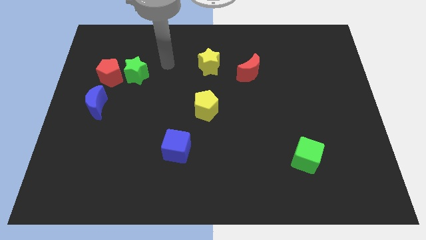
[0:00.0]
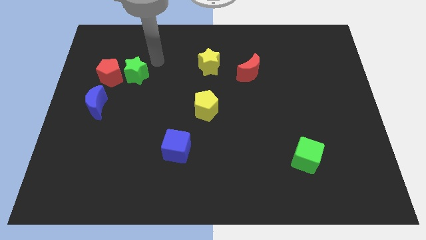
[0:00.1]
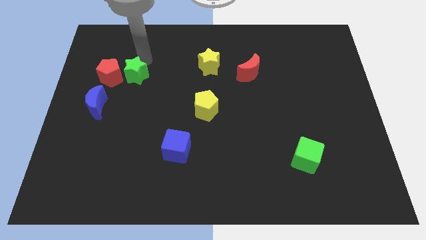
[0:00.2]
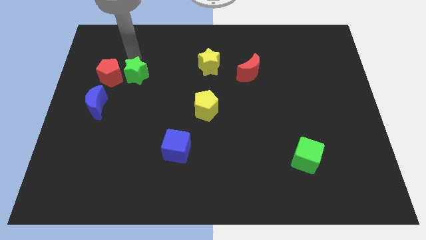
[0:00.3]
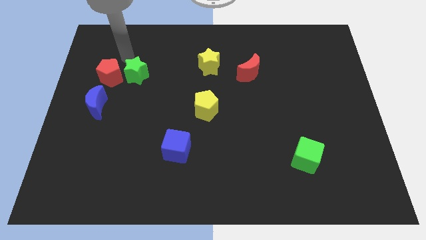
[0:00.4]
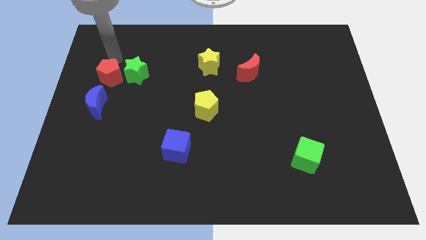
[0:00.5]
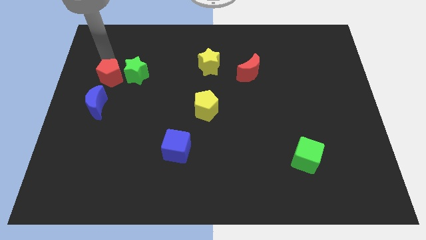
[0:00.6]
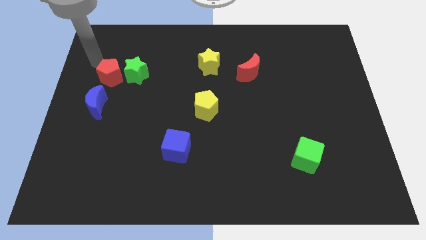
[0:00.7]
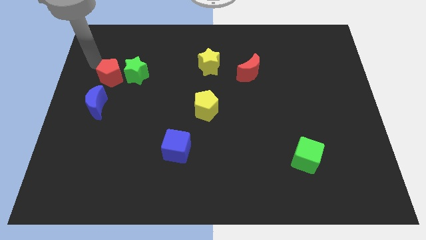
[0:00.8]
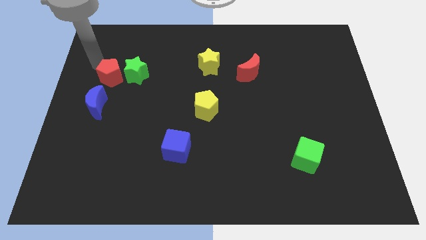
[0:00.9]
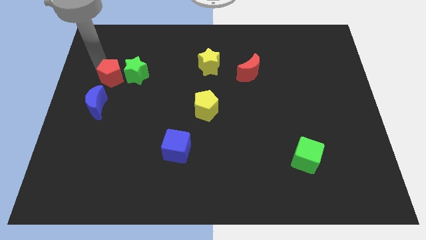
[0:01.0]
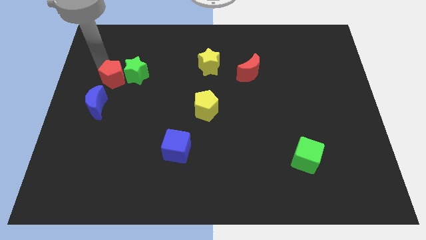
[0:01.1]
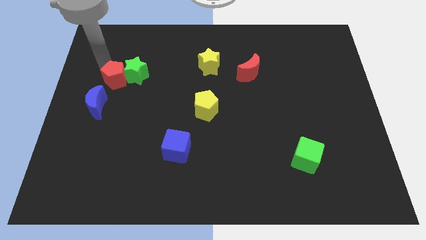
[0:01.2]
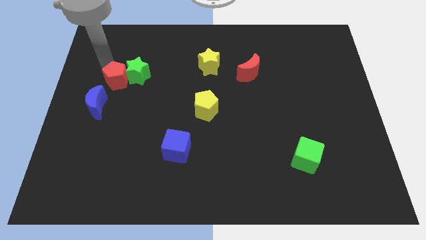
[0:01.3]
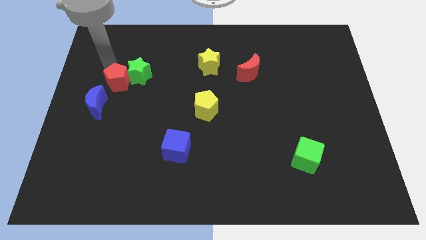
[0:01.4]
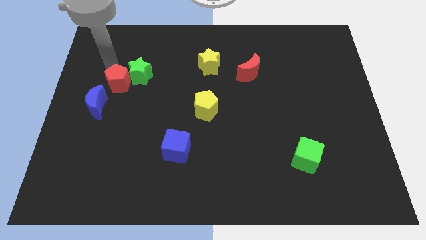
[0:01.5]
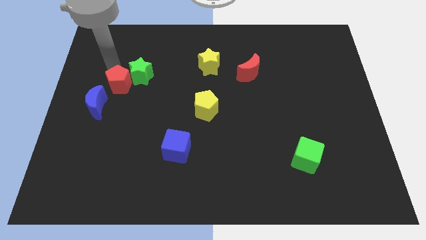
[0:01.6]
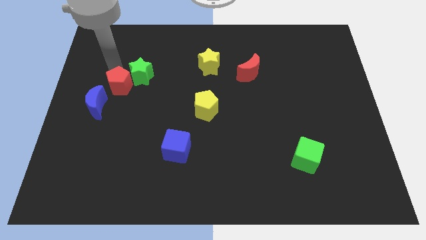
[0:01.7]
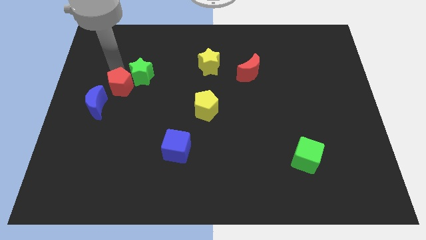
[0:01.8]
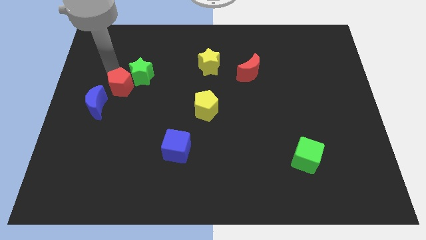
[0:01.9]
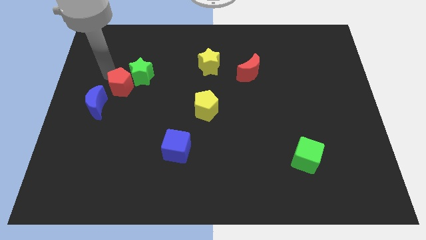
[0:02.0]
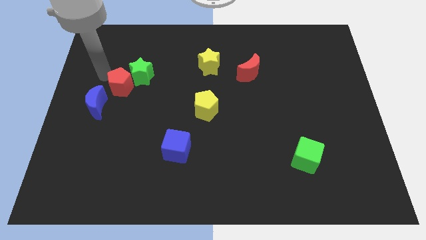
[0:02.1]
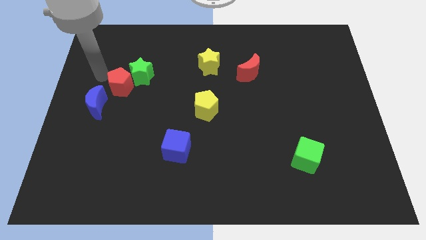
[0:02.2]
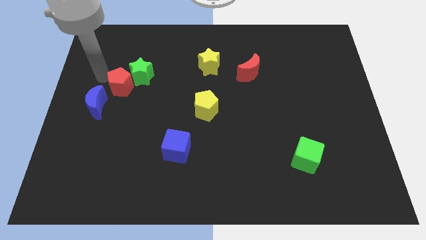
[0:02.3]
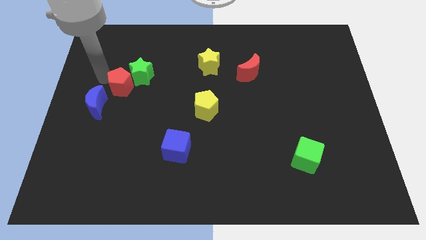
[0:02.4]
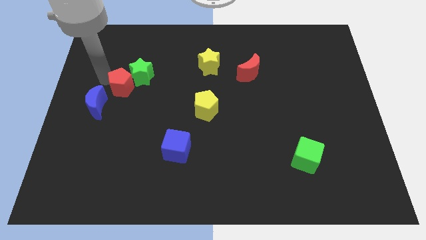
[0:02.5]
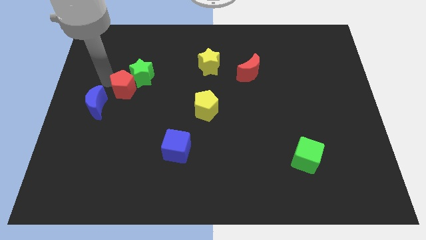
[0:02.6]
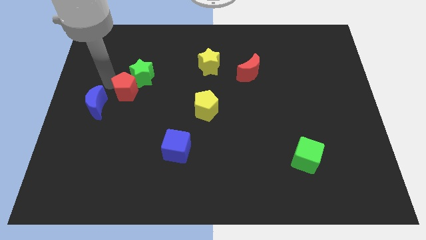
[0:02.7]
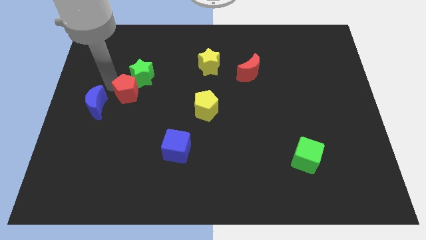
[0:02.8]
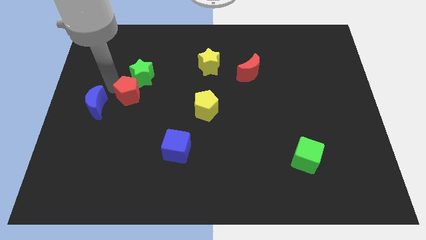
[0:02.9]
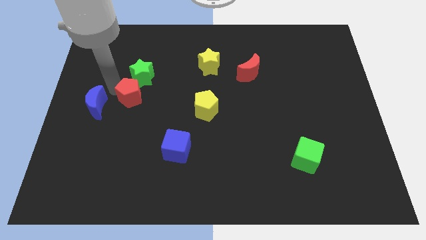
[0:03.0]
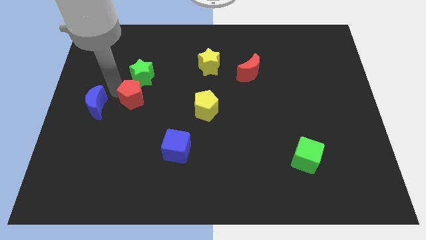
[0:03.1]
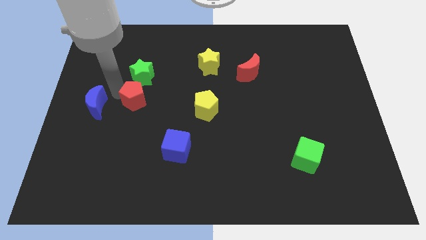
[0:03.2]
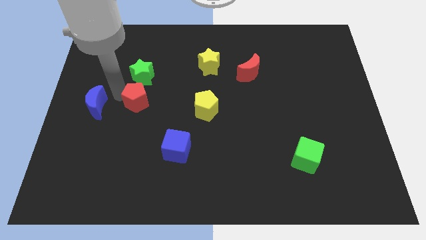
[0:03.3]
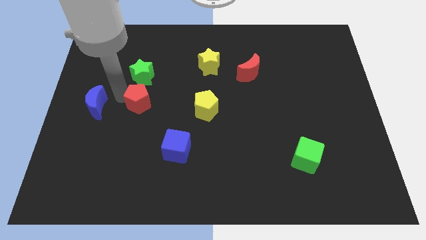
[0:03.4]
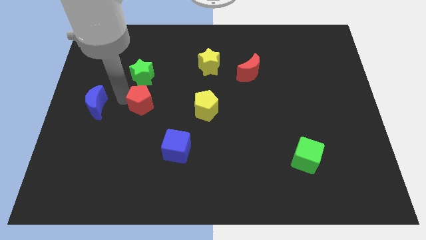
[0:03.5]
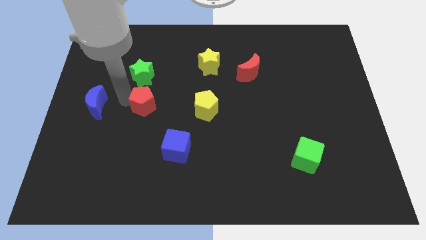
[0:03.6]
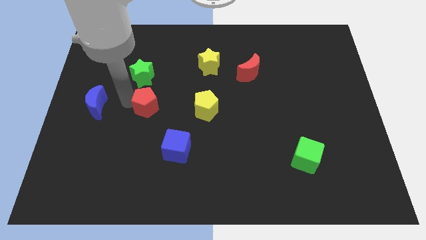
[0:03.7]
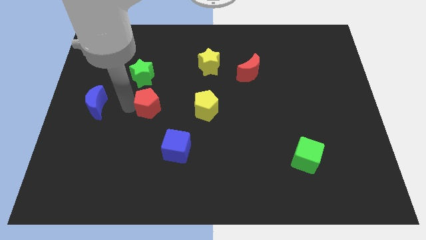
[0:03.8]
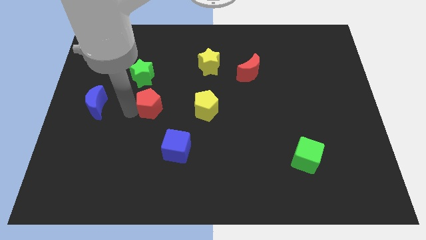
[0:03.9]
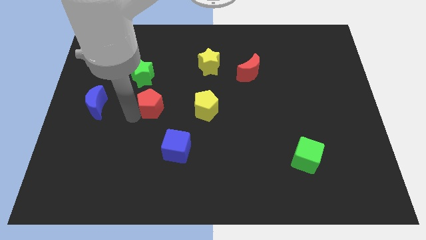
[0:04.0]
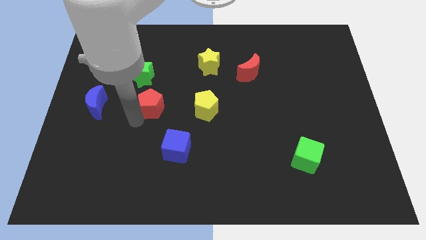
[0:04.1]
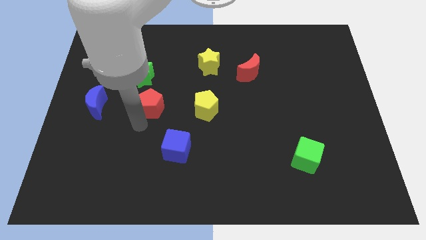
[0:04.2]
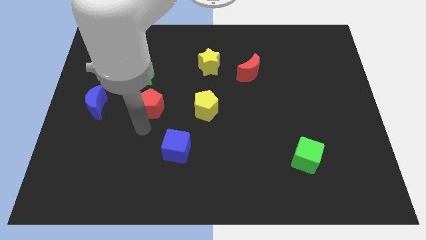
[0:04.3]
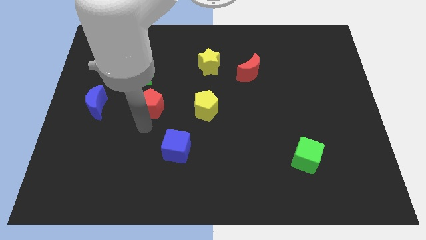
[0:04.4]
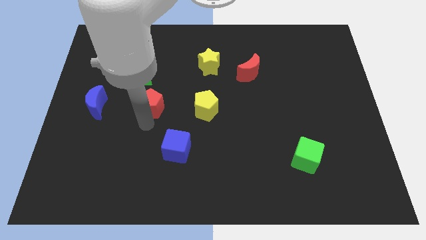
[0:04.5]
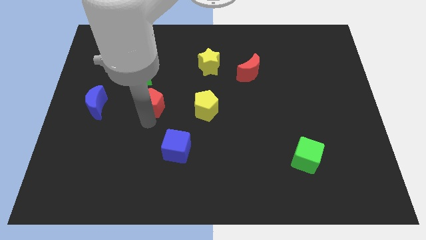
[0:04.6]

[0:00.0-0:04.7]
move the red pentagon right a little bit

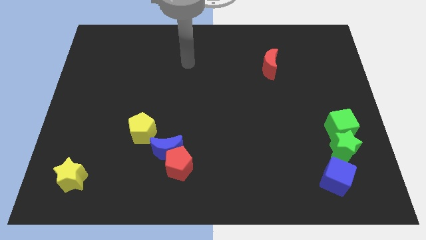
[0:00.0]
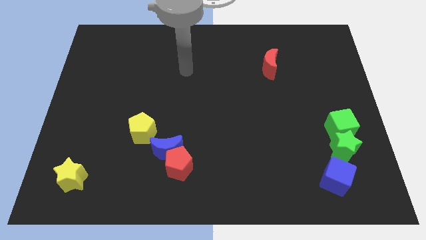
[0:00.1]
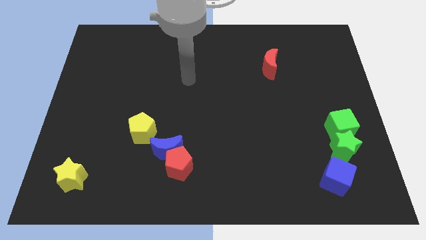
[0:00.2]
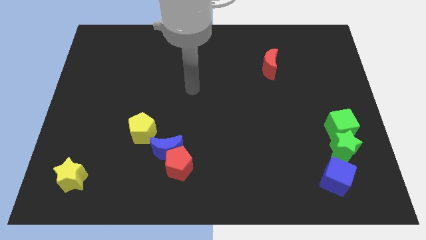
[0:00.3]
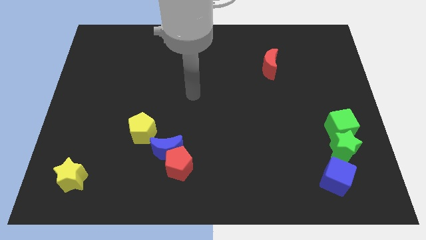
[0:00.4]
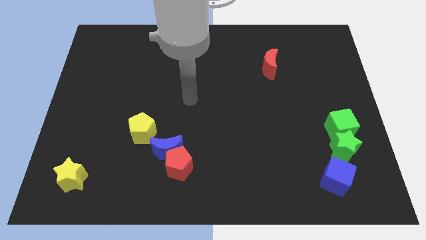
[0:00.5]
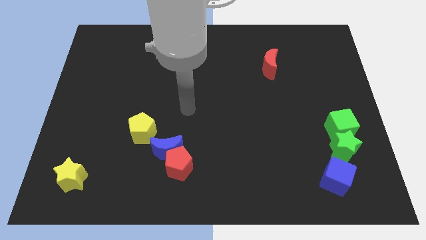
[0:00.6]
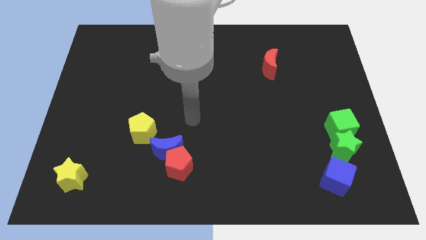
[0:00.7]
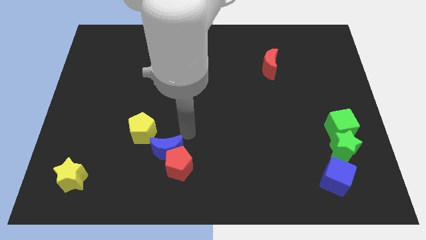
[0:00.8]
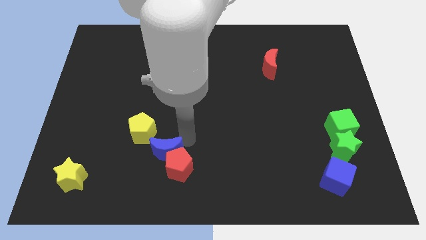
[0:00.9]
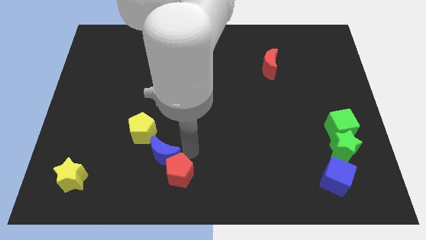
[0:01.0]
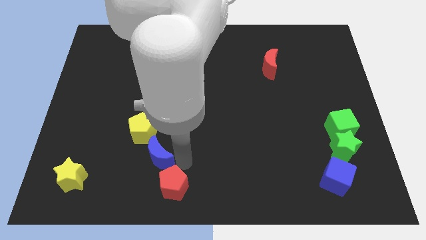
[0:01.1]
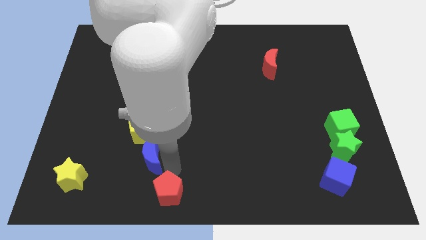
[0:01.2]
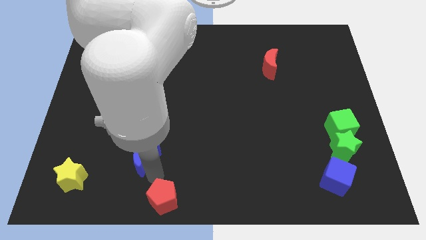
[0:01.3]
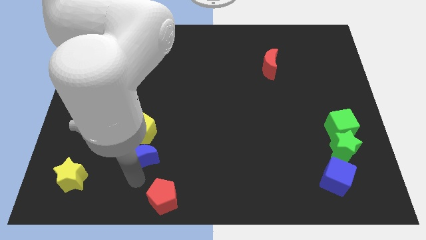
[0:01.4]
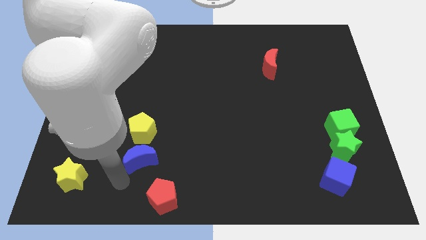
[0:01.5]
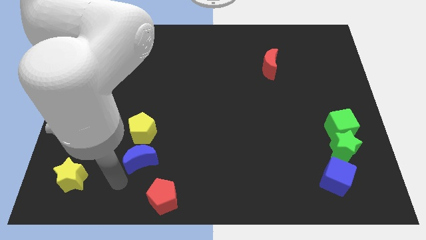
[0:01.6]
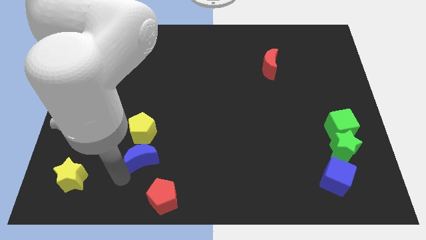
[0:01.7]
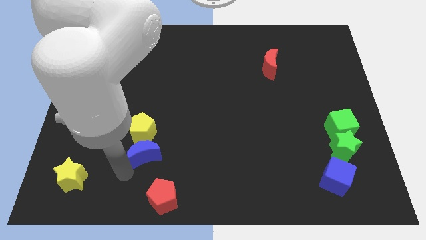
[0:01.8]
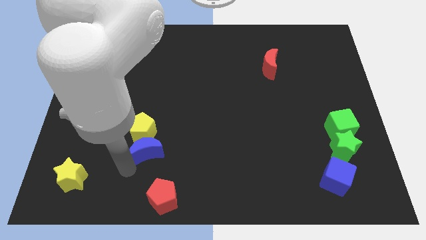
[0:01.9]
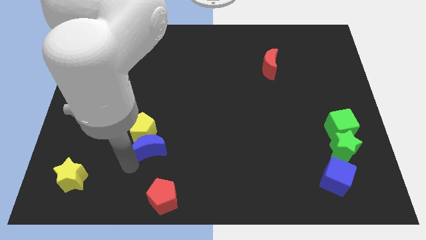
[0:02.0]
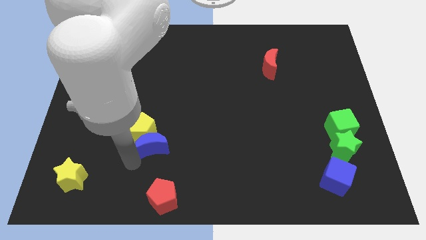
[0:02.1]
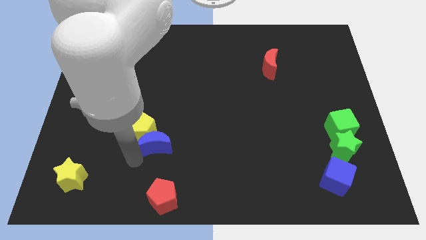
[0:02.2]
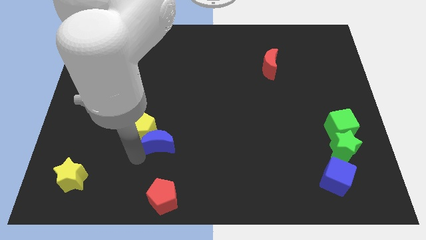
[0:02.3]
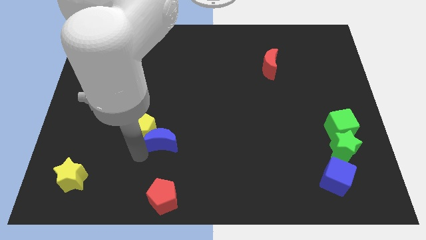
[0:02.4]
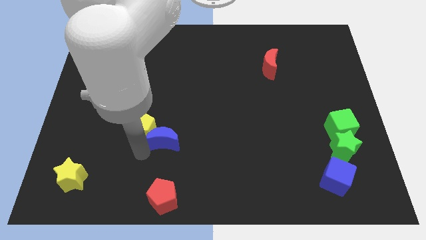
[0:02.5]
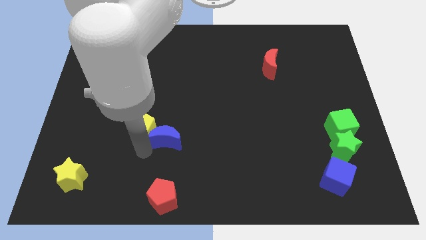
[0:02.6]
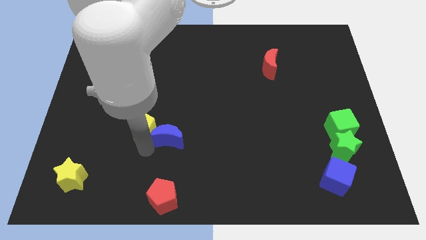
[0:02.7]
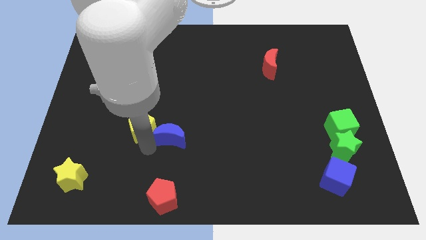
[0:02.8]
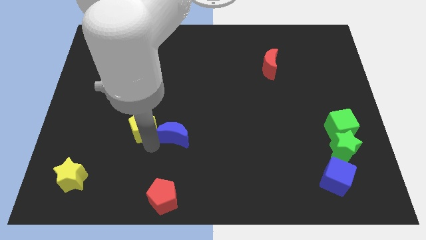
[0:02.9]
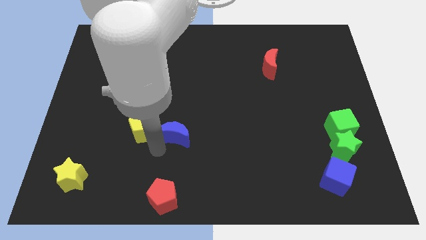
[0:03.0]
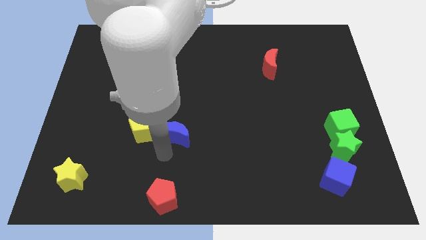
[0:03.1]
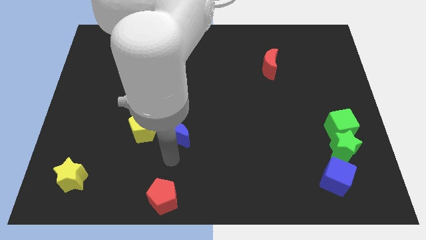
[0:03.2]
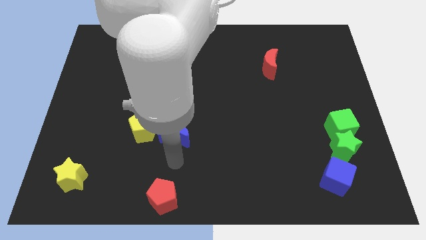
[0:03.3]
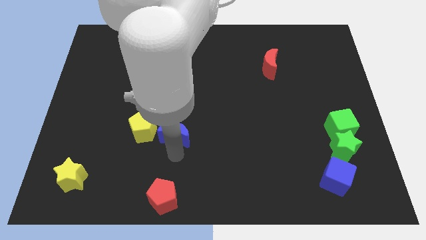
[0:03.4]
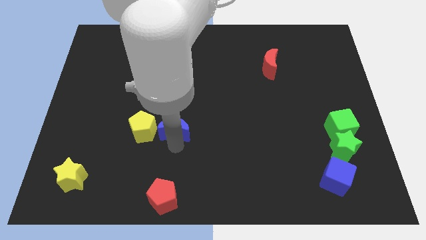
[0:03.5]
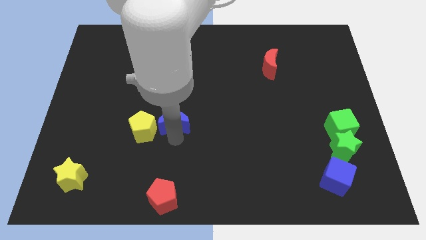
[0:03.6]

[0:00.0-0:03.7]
push the blue moon a little bit upwards
